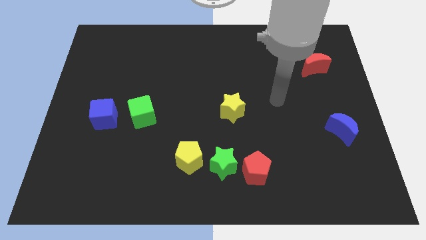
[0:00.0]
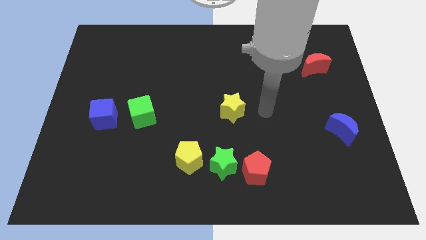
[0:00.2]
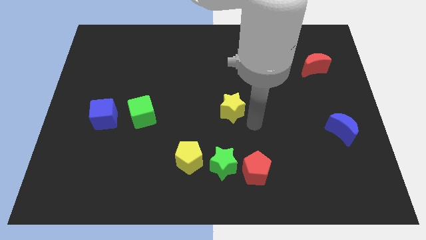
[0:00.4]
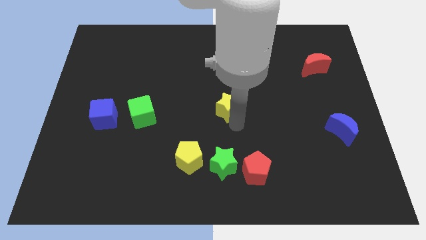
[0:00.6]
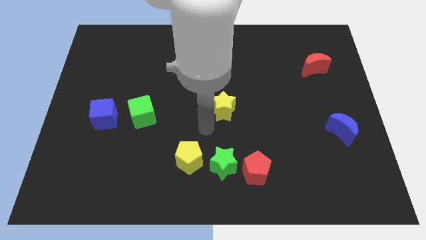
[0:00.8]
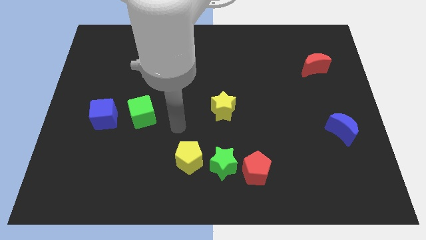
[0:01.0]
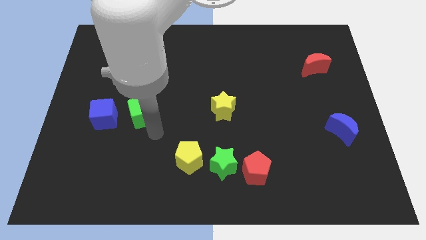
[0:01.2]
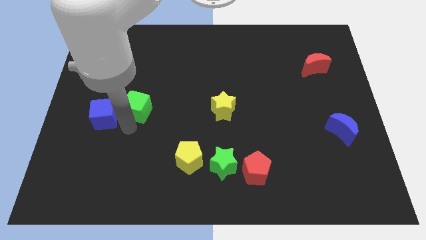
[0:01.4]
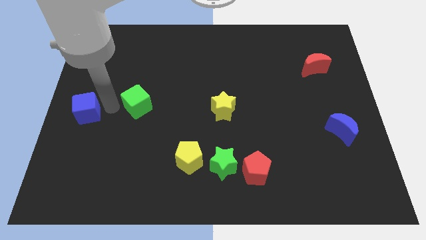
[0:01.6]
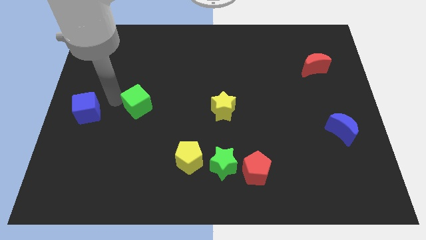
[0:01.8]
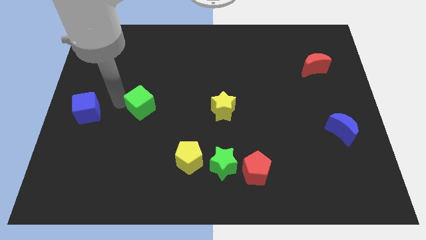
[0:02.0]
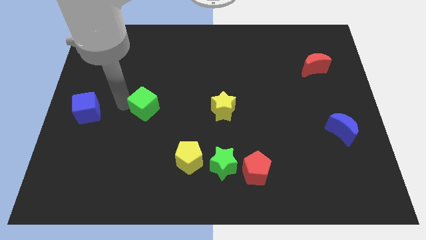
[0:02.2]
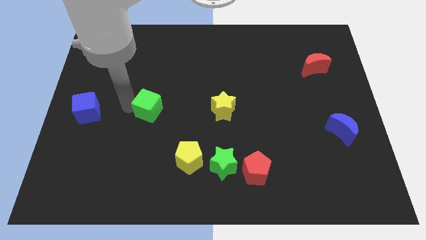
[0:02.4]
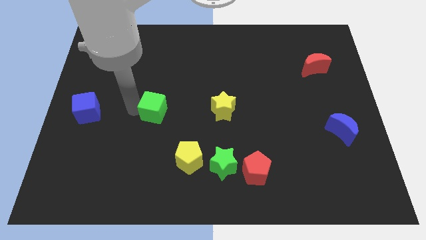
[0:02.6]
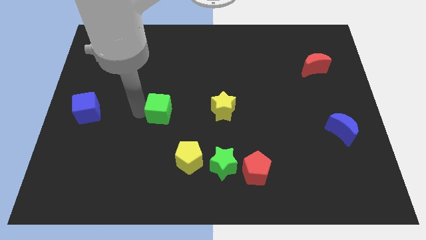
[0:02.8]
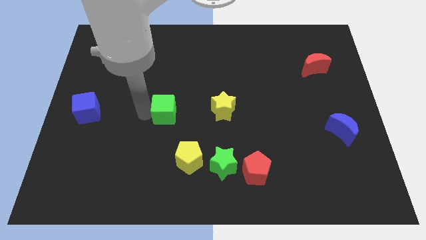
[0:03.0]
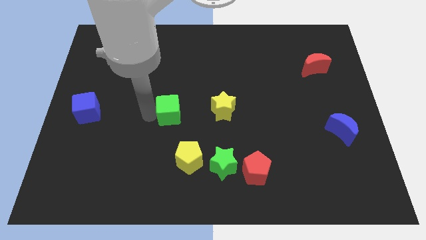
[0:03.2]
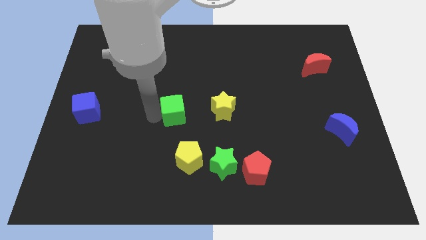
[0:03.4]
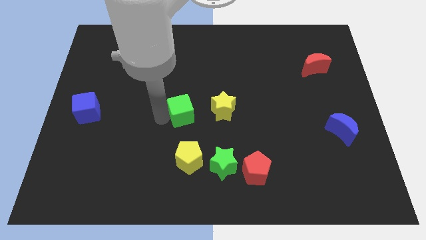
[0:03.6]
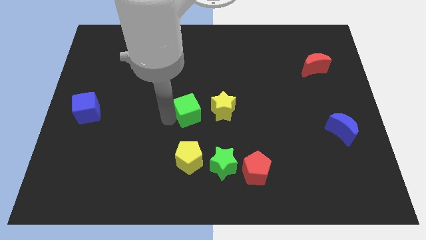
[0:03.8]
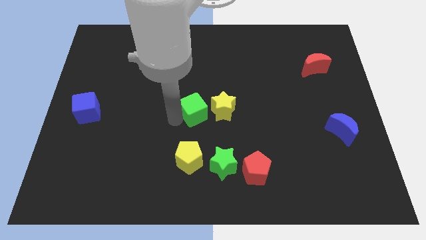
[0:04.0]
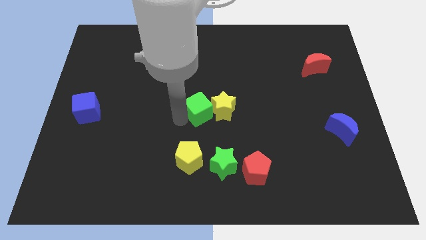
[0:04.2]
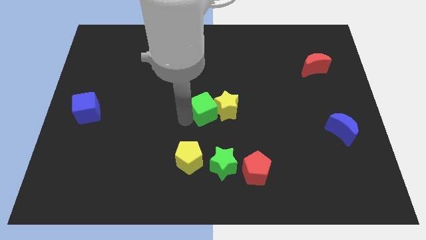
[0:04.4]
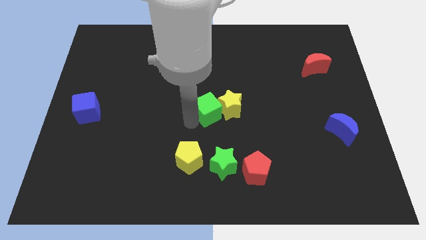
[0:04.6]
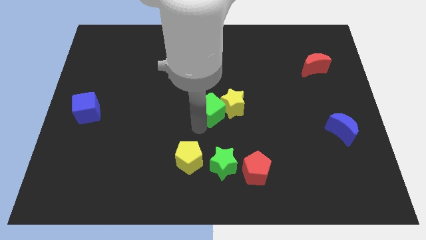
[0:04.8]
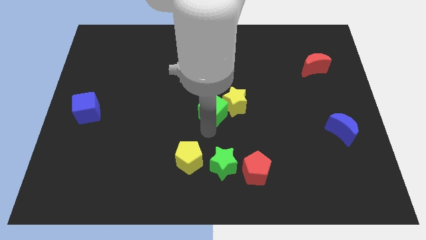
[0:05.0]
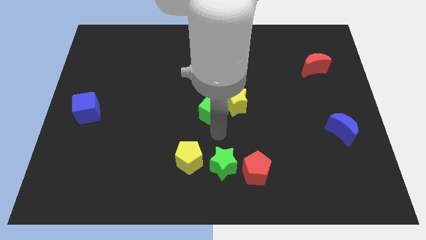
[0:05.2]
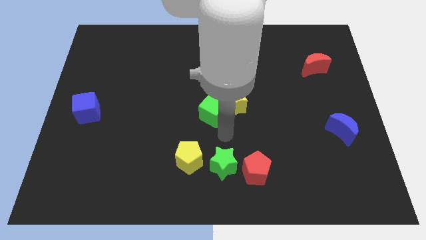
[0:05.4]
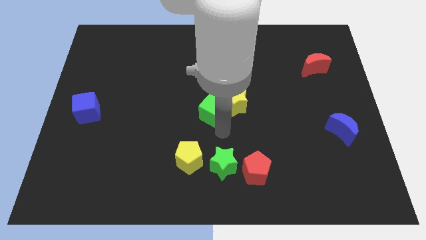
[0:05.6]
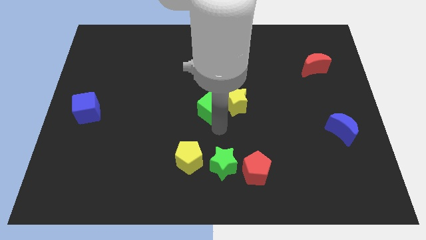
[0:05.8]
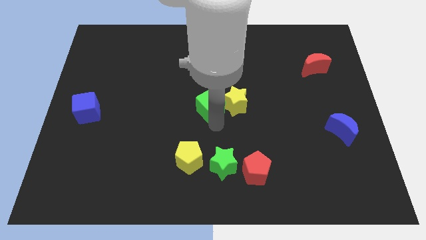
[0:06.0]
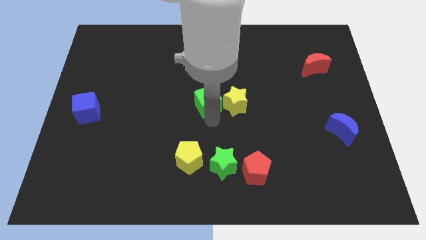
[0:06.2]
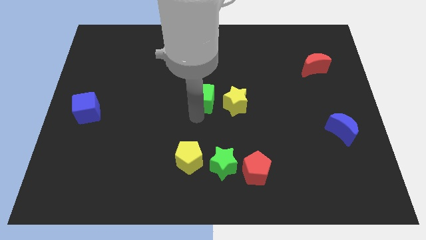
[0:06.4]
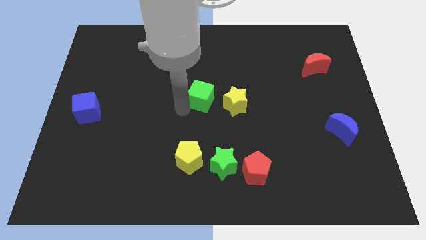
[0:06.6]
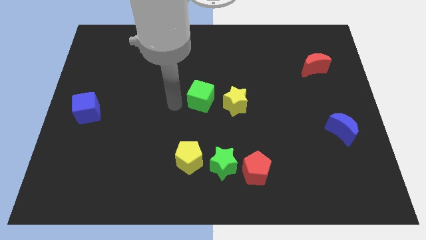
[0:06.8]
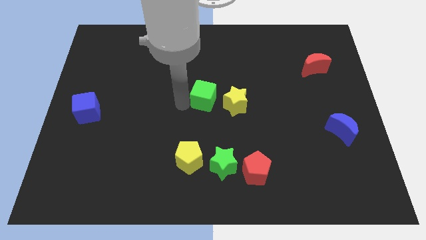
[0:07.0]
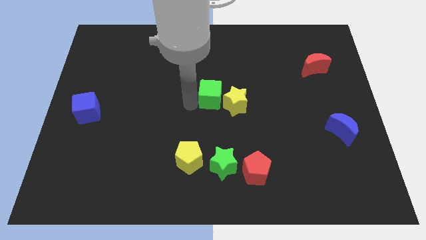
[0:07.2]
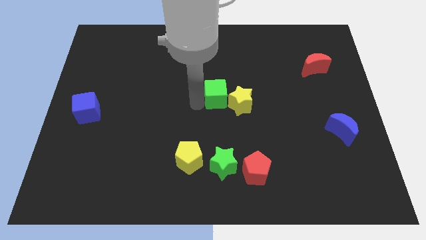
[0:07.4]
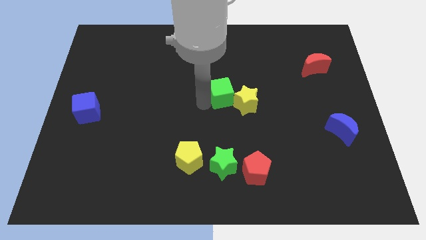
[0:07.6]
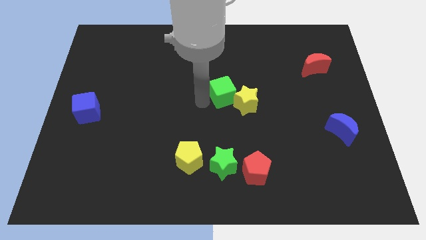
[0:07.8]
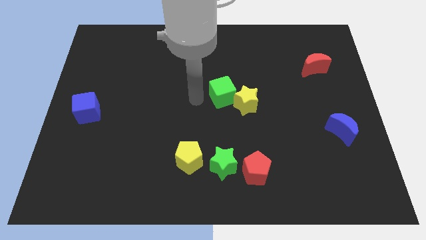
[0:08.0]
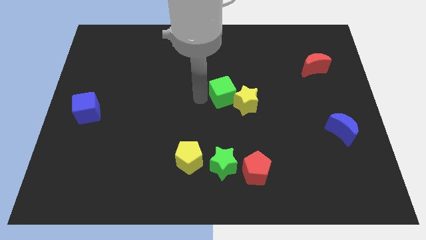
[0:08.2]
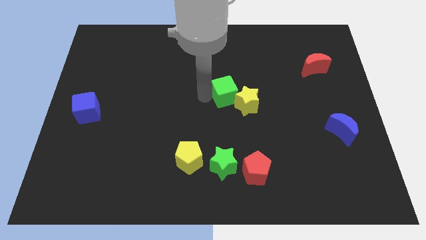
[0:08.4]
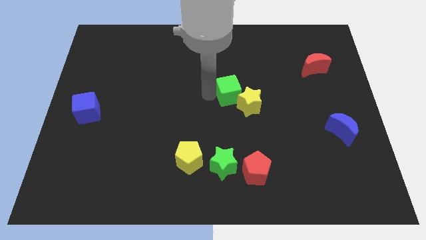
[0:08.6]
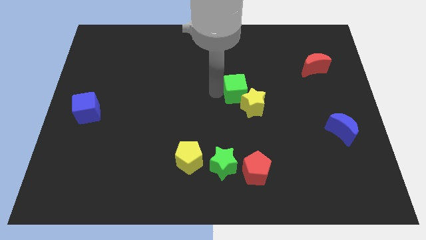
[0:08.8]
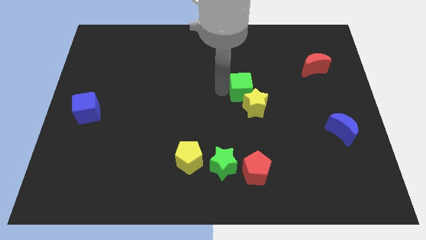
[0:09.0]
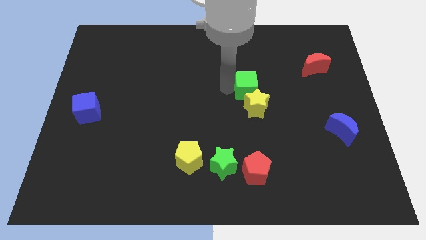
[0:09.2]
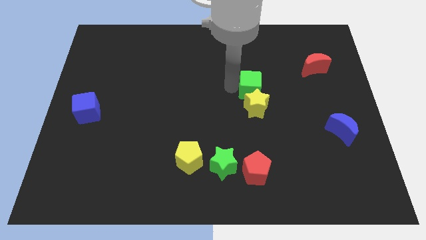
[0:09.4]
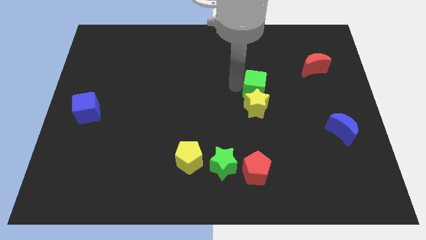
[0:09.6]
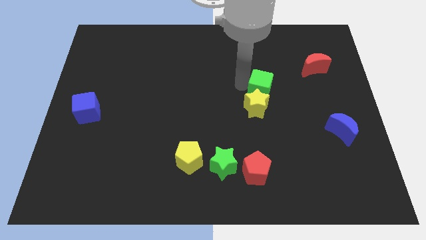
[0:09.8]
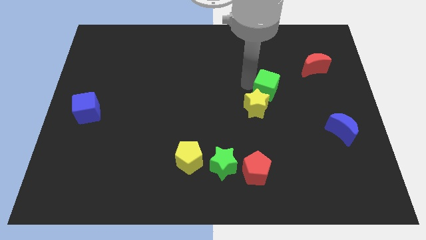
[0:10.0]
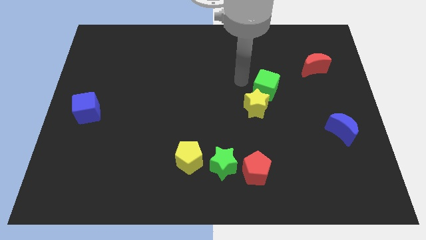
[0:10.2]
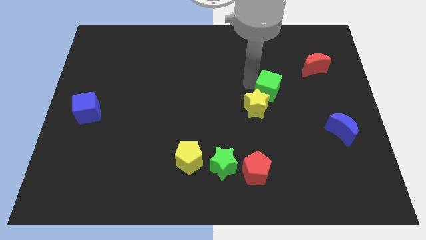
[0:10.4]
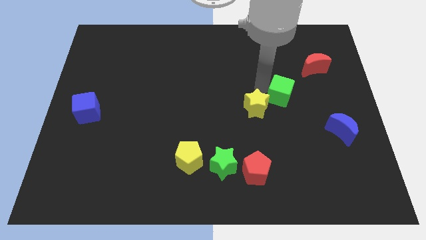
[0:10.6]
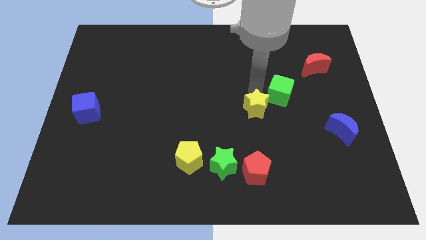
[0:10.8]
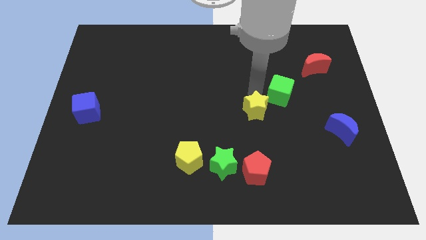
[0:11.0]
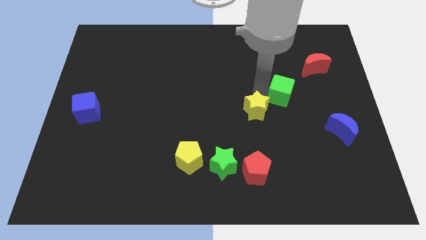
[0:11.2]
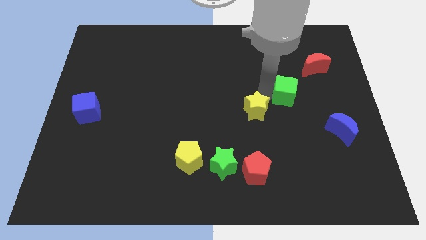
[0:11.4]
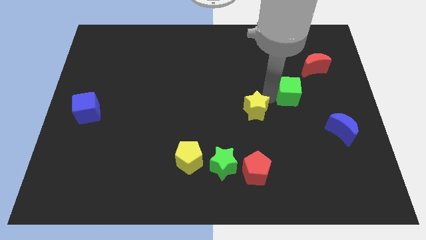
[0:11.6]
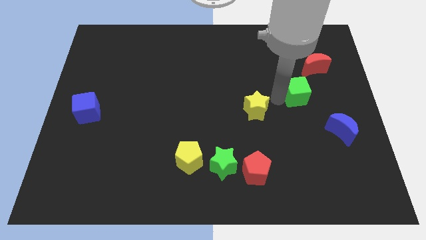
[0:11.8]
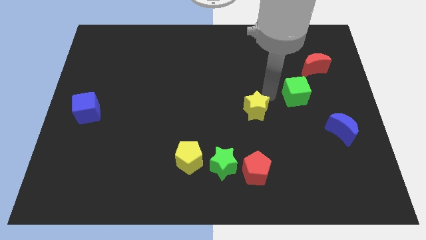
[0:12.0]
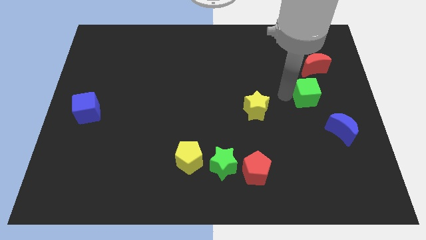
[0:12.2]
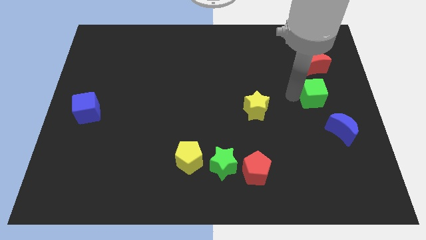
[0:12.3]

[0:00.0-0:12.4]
push the green cube to the top side of the blue moon

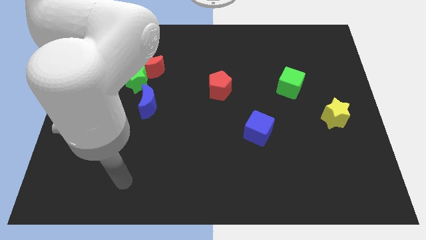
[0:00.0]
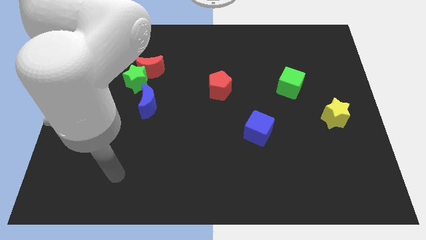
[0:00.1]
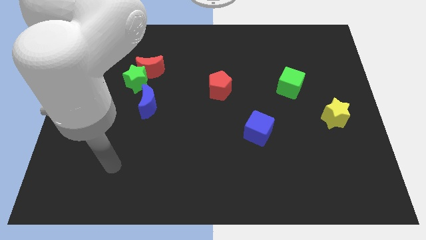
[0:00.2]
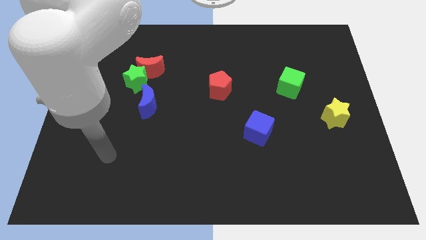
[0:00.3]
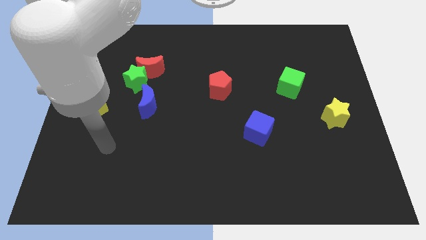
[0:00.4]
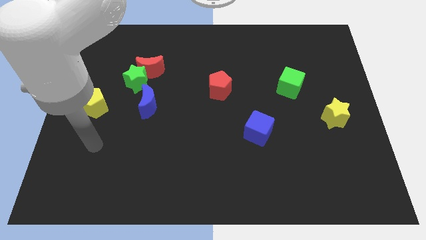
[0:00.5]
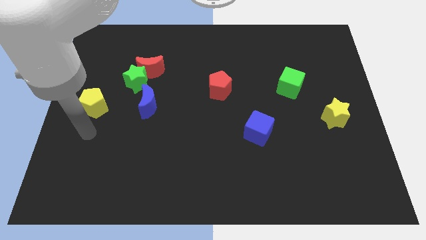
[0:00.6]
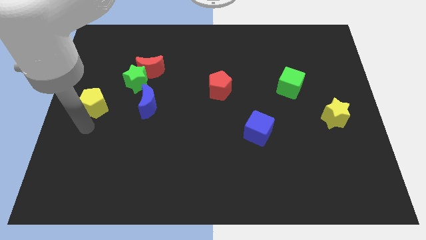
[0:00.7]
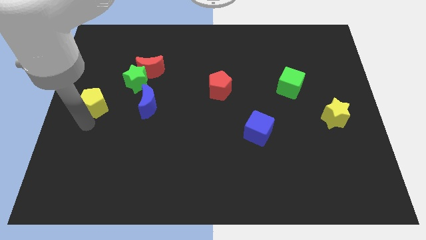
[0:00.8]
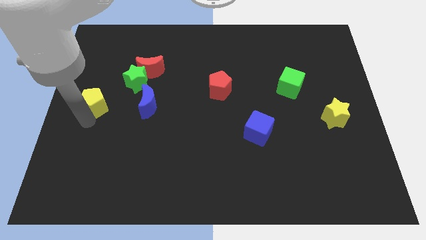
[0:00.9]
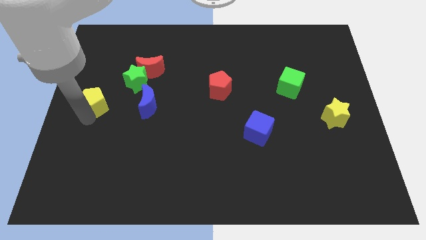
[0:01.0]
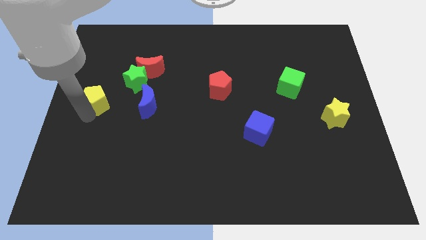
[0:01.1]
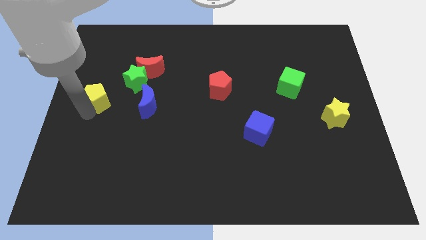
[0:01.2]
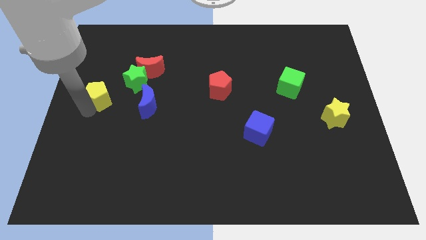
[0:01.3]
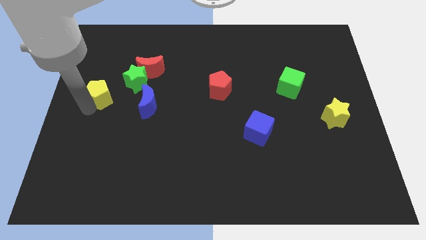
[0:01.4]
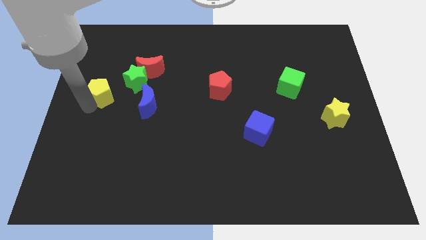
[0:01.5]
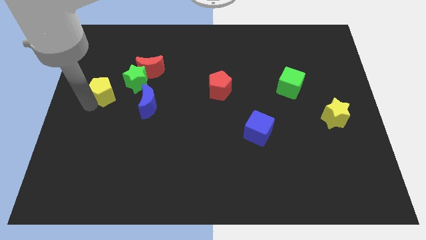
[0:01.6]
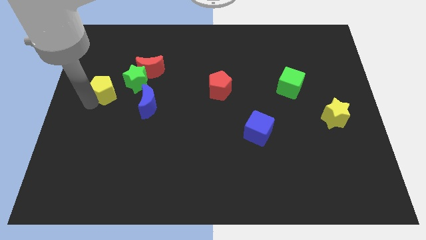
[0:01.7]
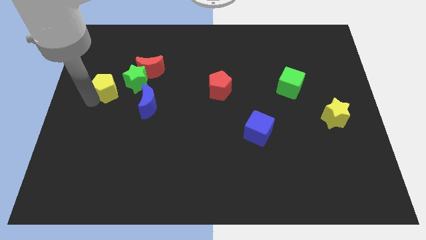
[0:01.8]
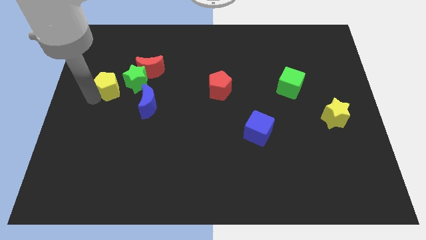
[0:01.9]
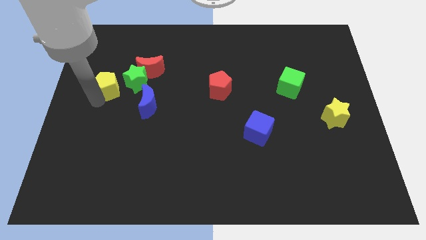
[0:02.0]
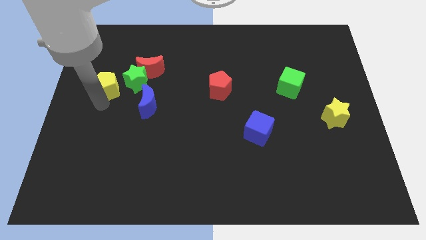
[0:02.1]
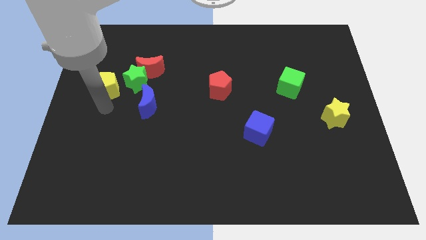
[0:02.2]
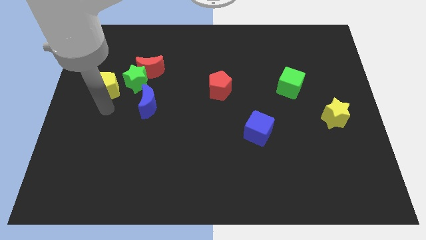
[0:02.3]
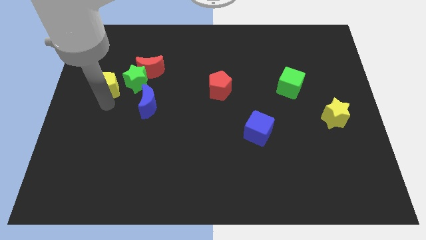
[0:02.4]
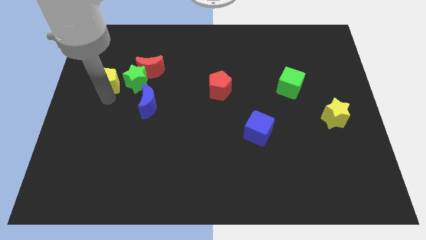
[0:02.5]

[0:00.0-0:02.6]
slide the yellow pentagon to the left of the red moon
